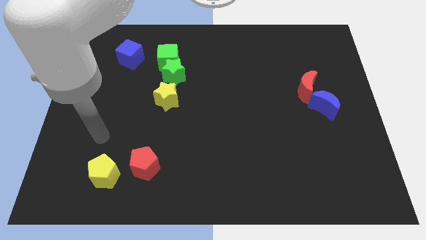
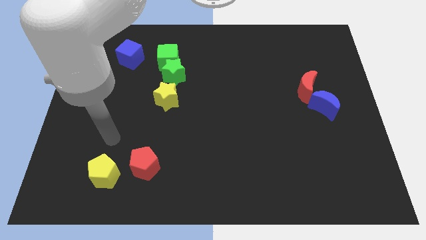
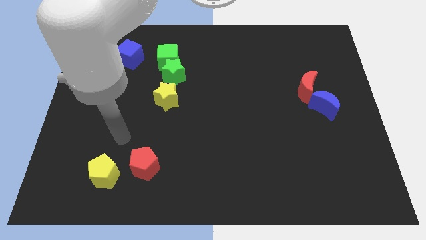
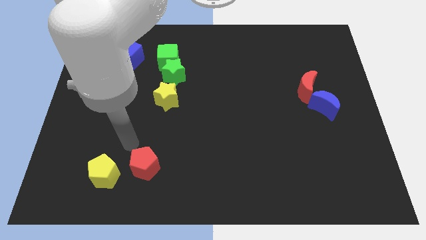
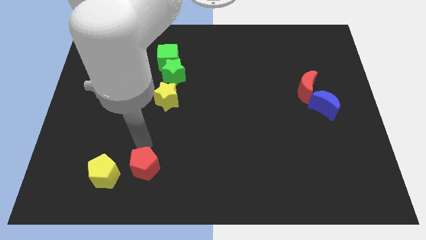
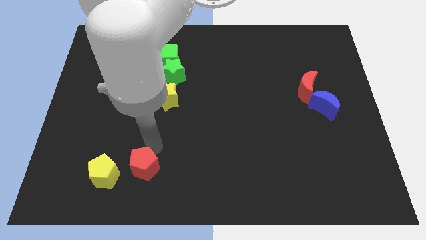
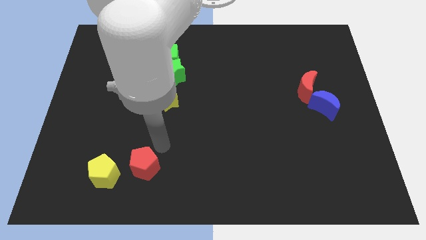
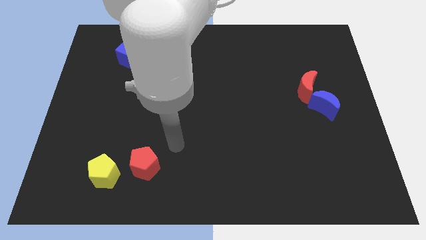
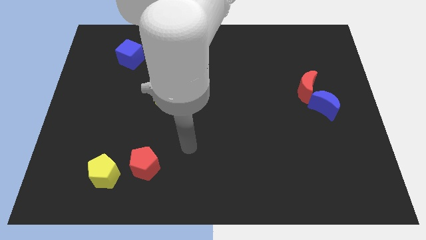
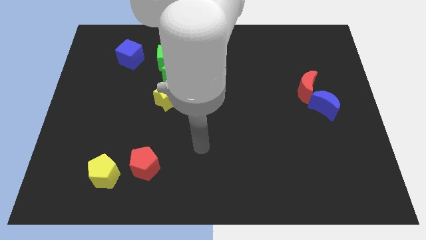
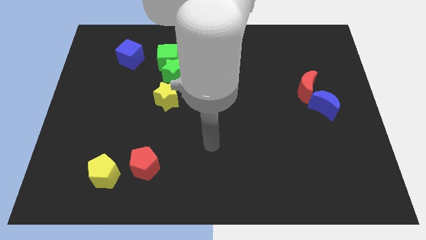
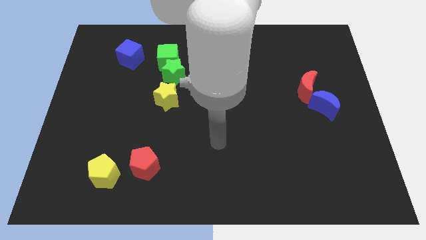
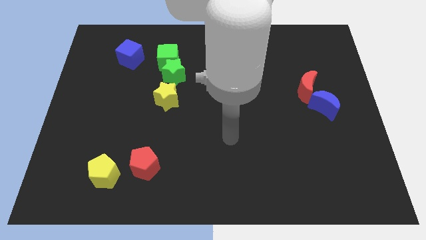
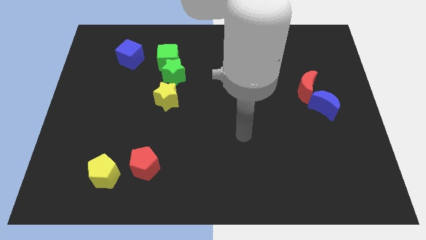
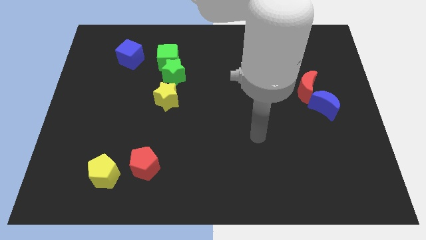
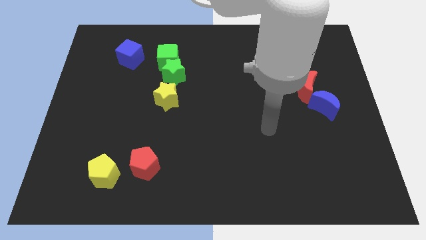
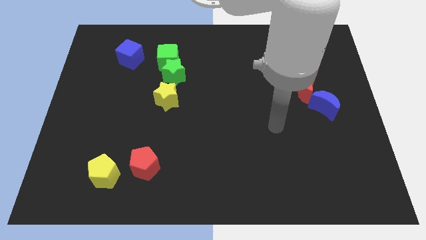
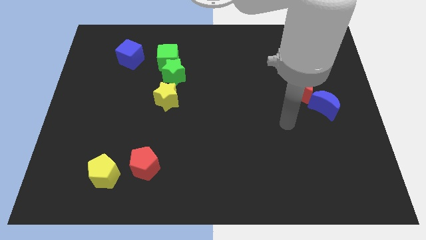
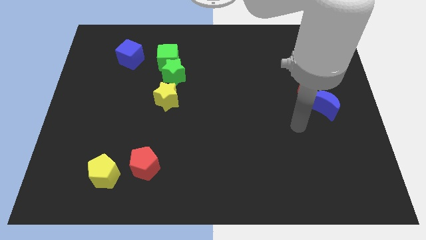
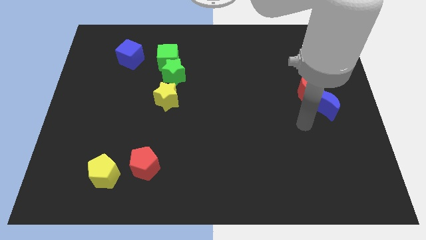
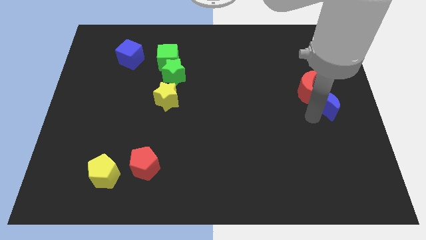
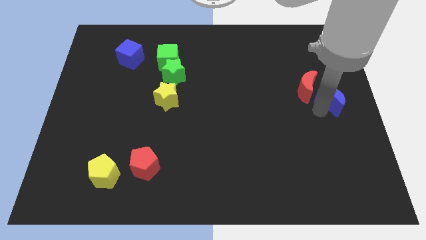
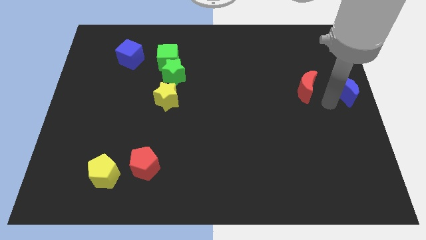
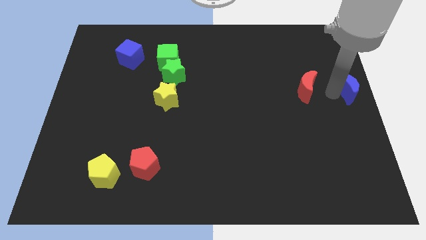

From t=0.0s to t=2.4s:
separate the red moon from the blue moon

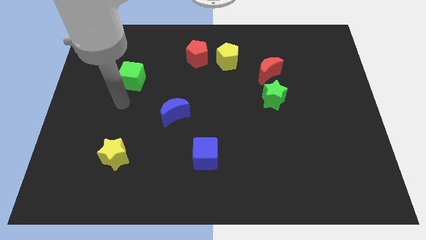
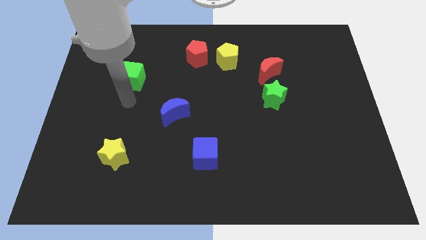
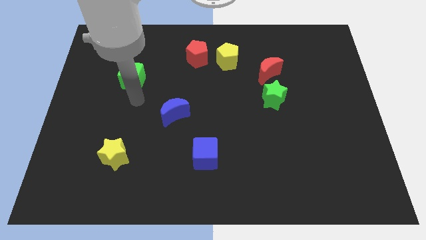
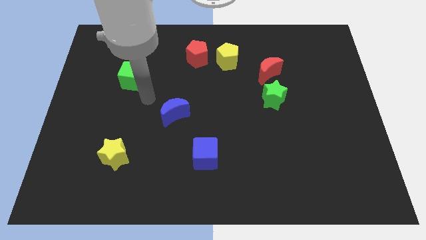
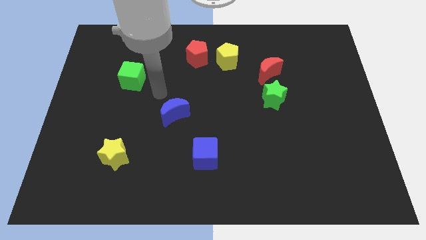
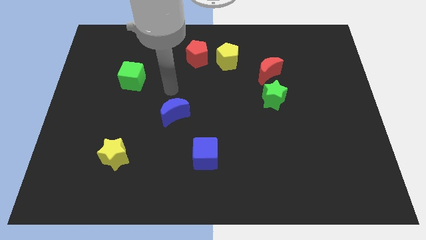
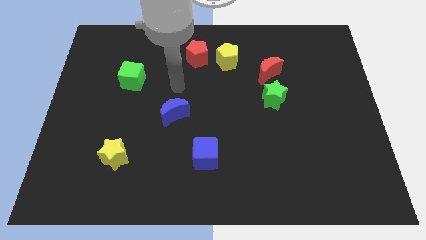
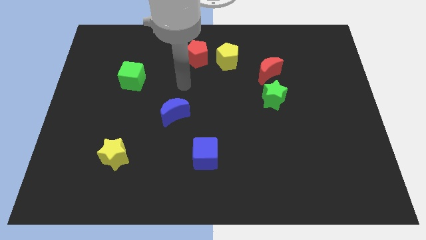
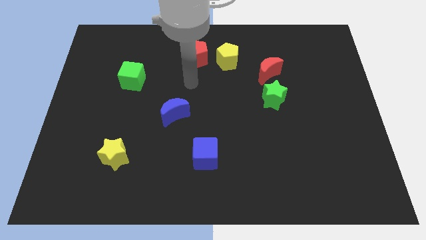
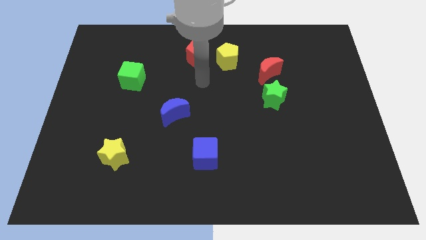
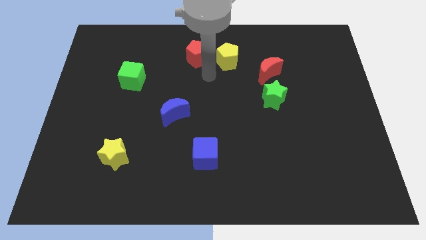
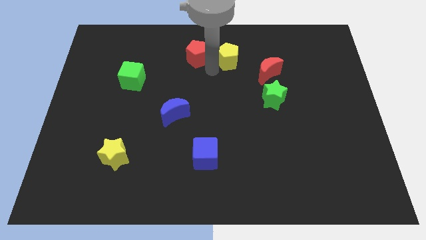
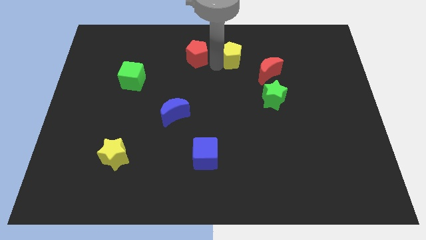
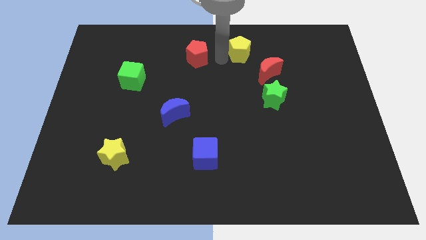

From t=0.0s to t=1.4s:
move the red pentagon away from the yellow pentagon

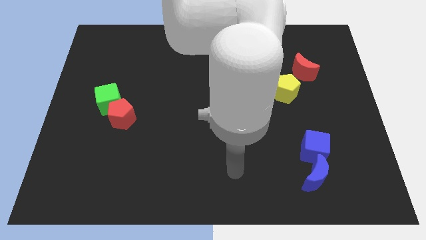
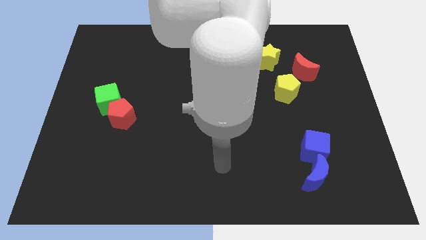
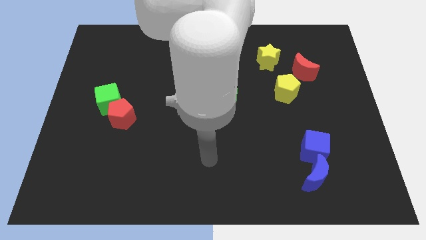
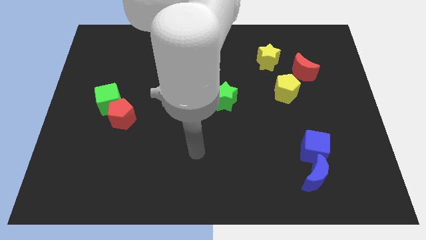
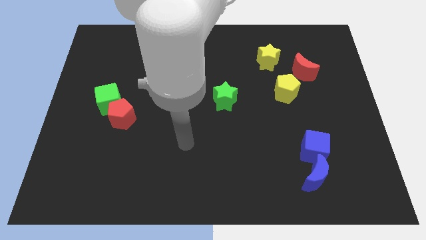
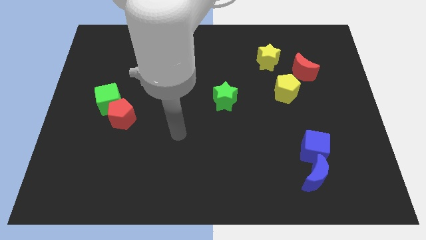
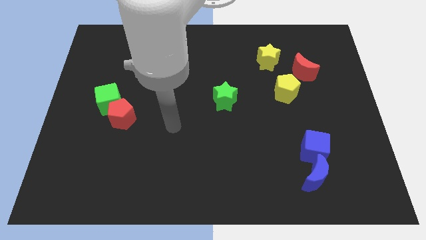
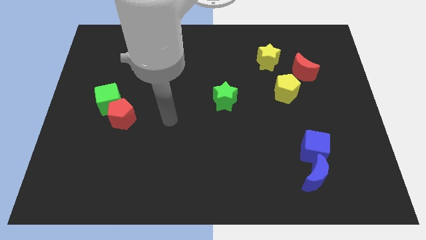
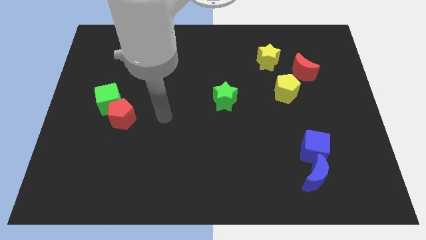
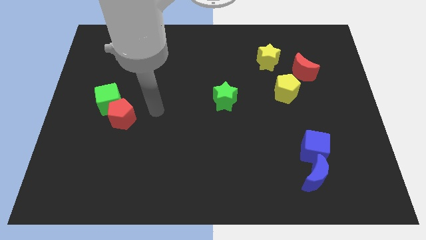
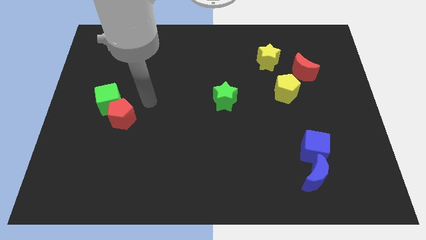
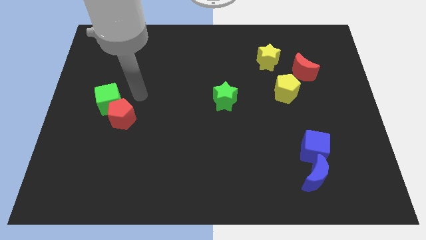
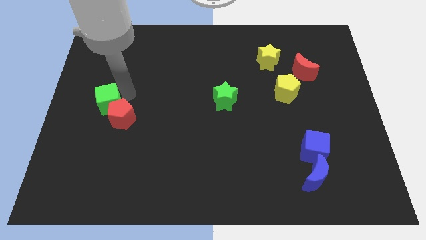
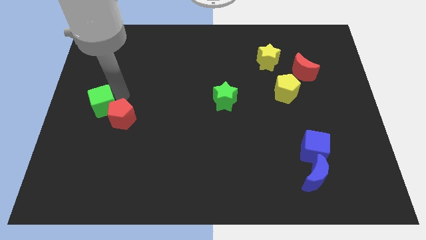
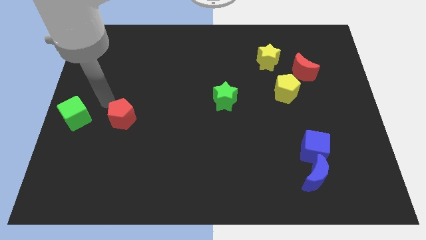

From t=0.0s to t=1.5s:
move the red pentagon away from the green cube

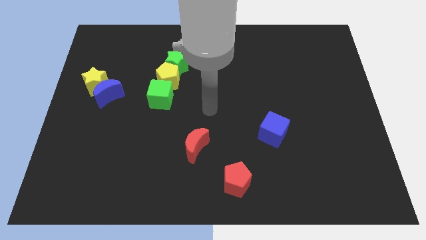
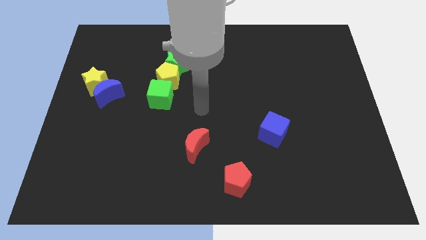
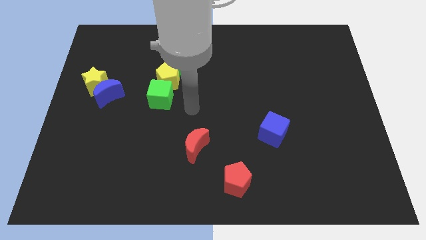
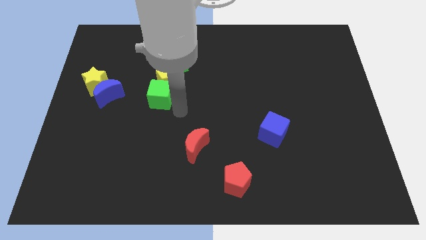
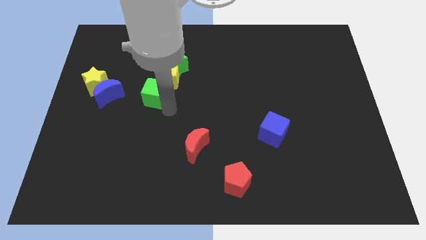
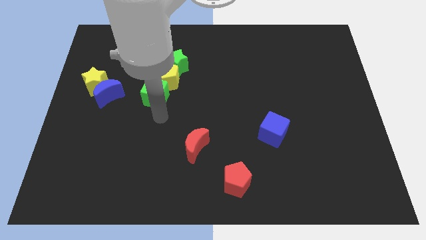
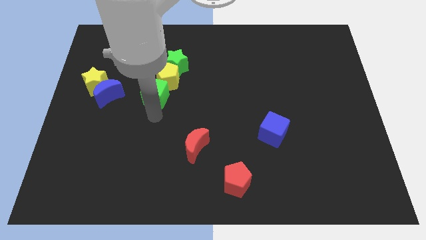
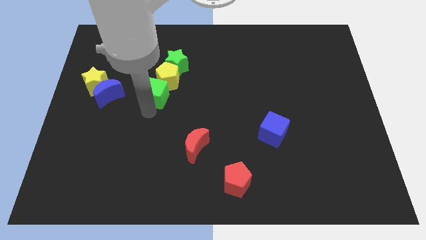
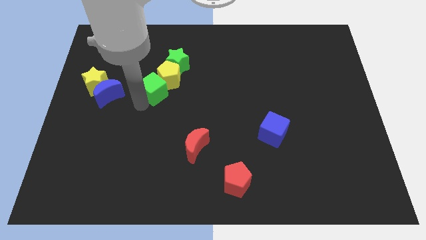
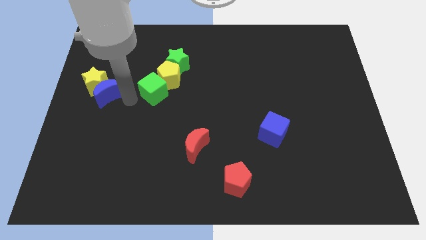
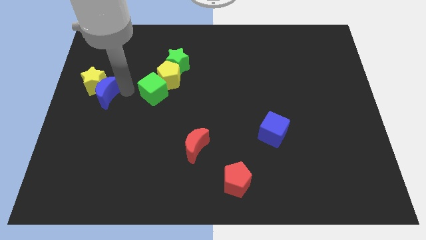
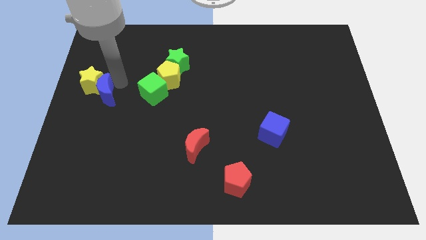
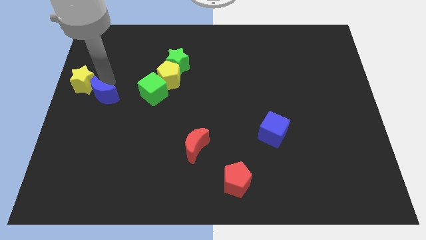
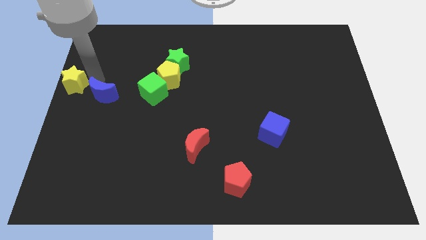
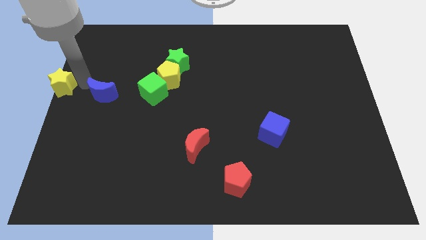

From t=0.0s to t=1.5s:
pull the blue moon apart from the yellow star

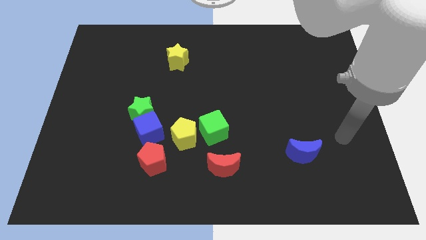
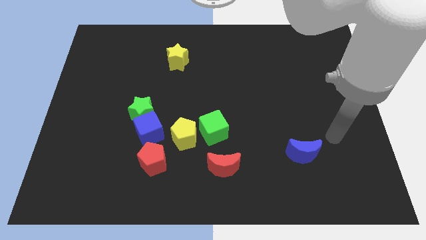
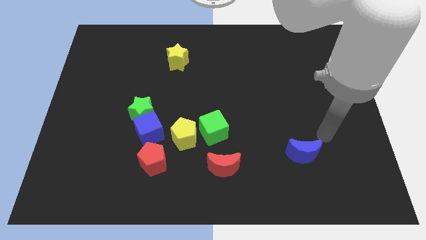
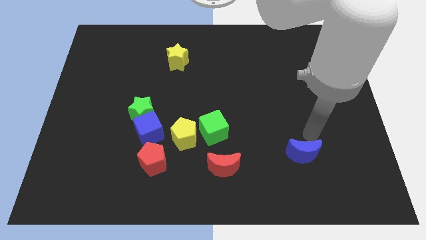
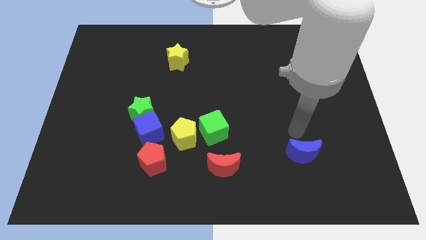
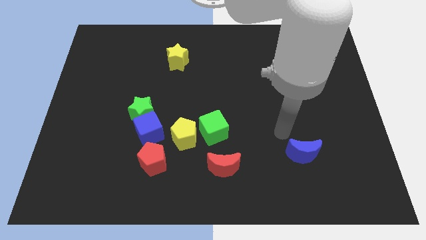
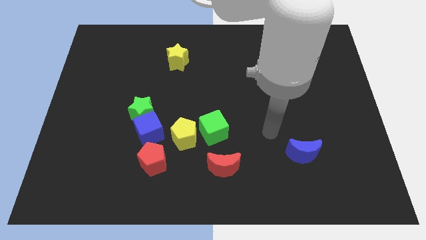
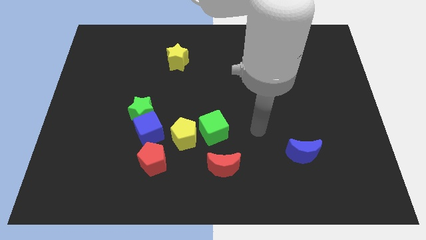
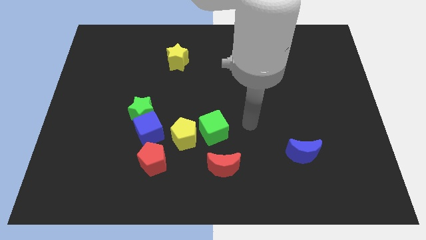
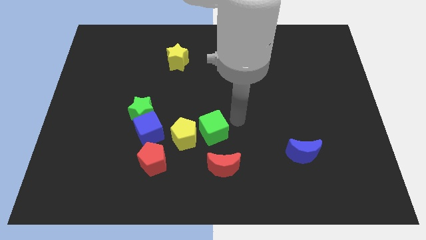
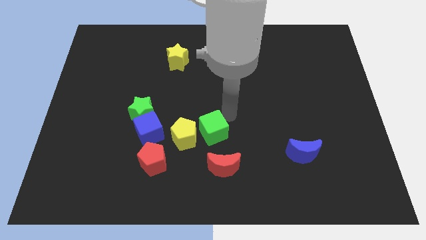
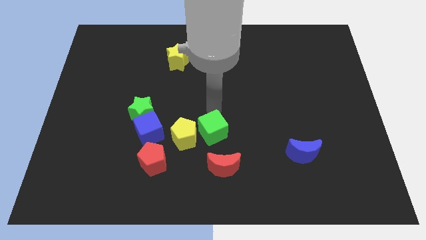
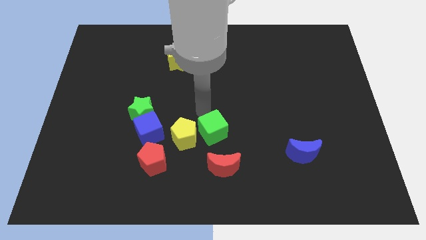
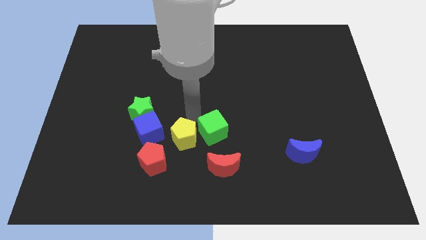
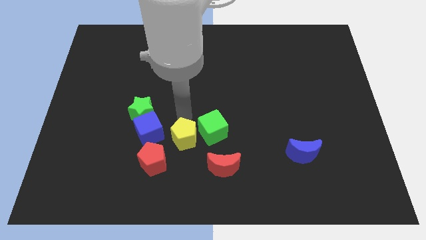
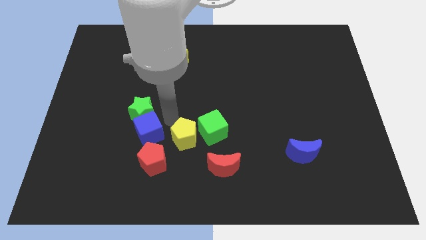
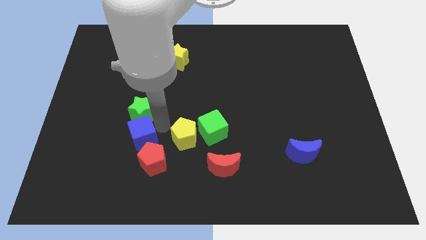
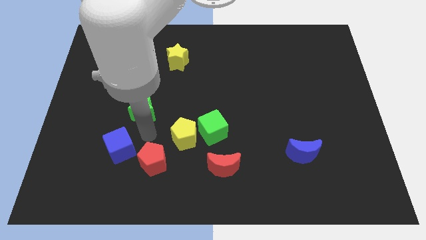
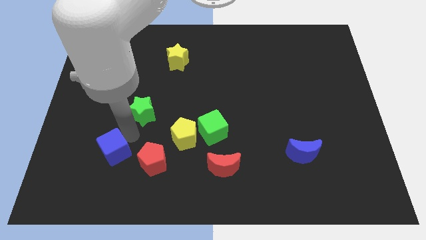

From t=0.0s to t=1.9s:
separate the green star from the blue cube

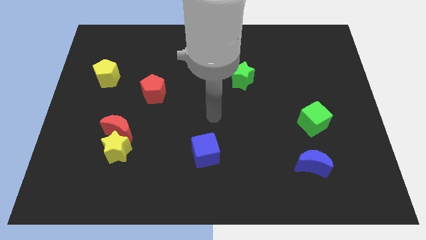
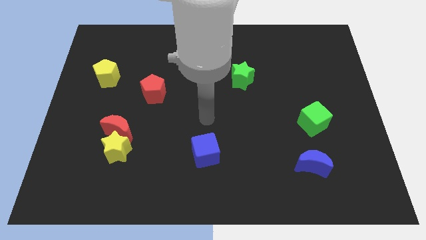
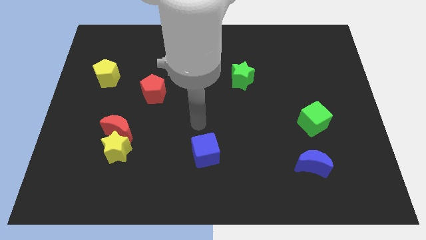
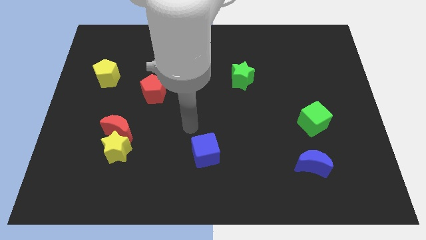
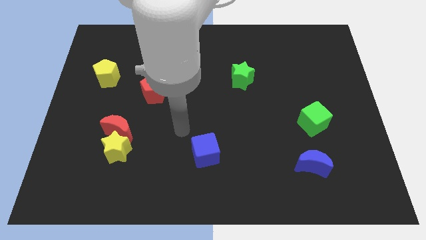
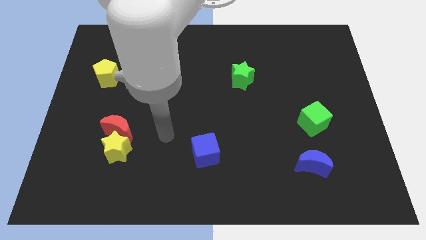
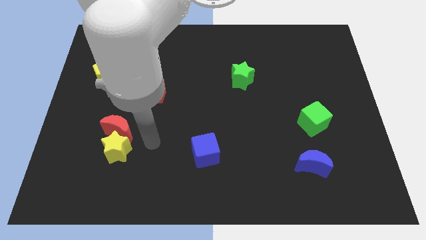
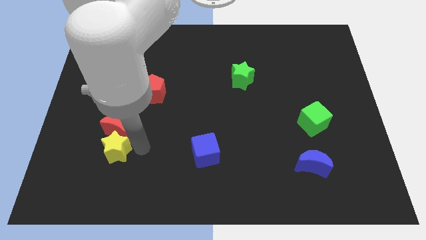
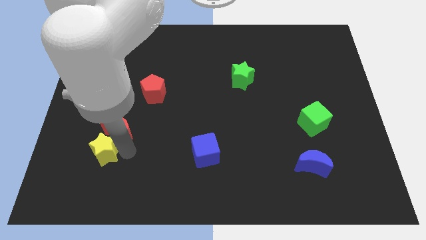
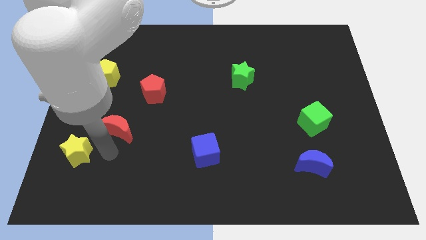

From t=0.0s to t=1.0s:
pull the red moon apart from the yellow star
